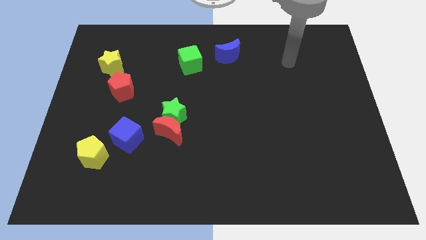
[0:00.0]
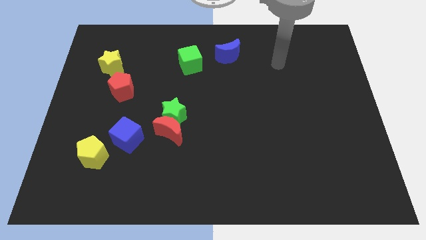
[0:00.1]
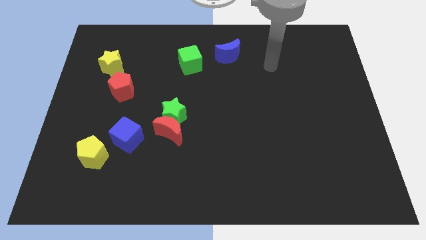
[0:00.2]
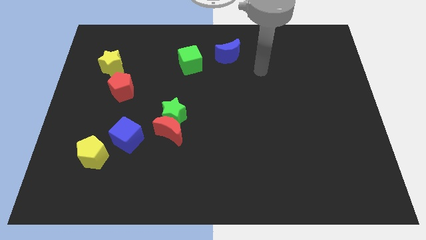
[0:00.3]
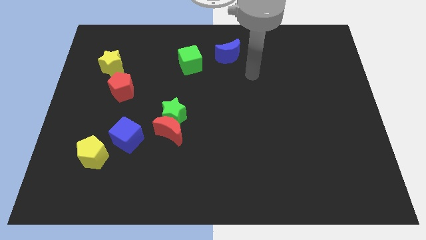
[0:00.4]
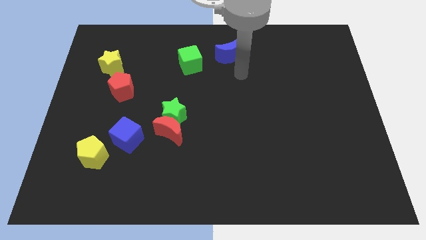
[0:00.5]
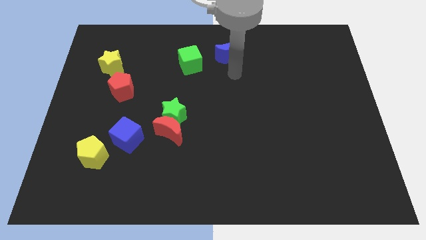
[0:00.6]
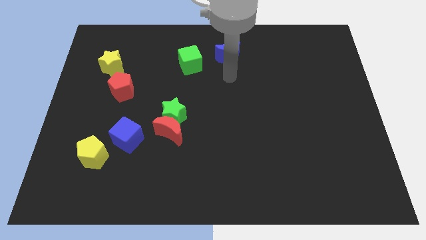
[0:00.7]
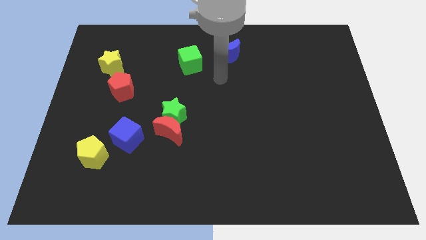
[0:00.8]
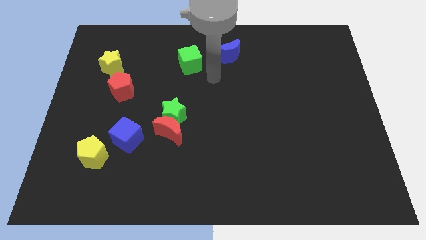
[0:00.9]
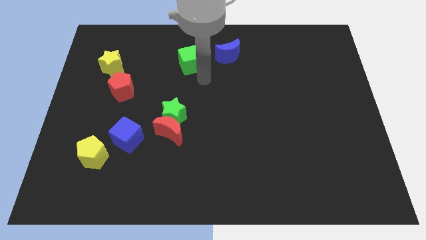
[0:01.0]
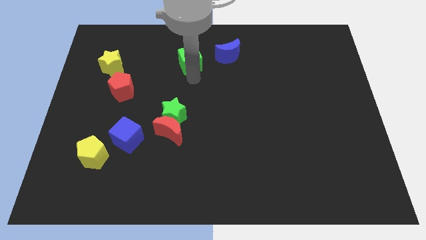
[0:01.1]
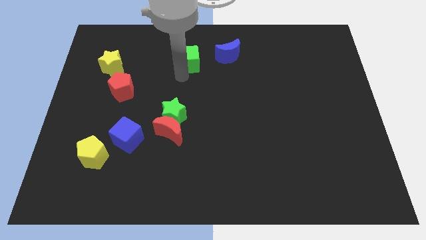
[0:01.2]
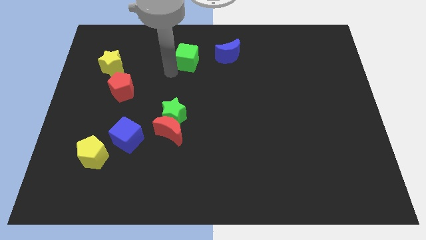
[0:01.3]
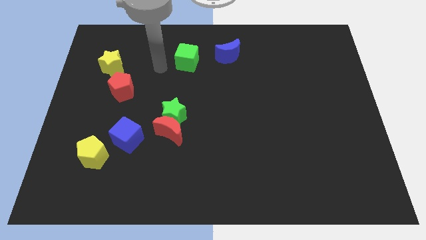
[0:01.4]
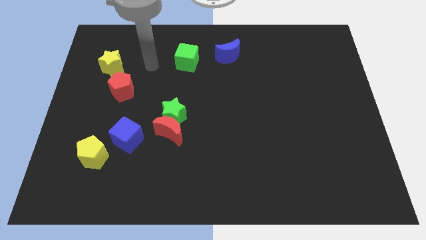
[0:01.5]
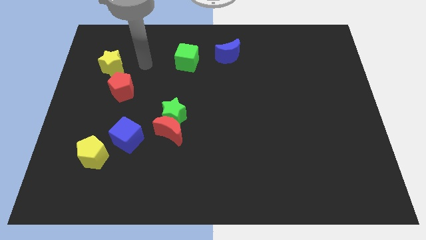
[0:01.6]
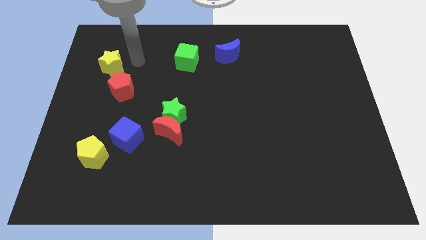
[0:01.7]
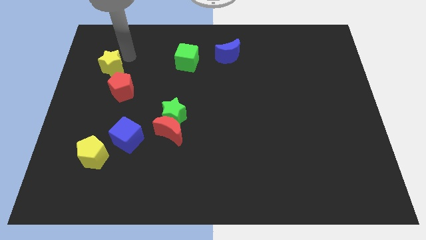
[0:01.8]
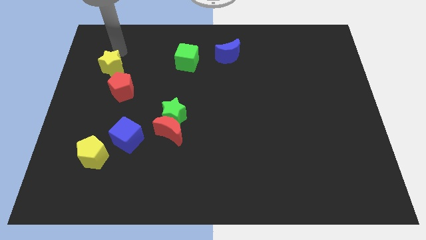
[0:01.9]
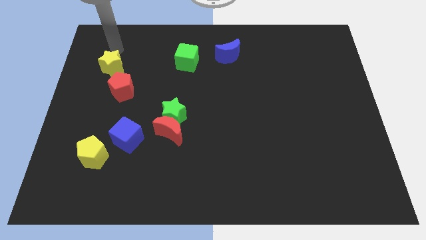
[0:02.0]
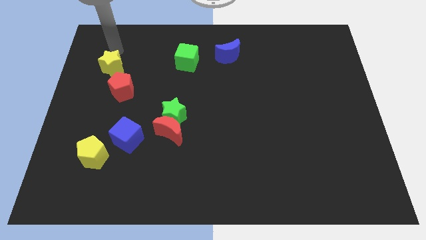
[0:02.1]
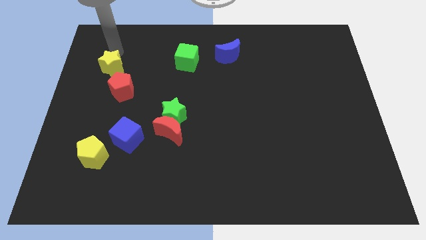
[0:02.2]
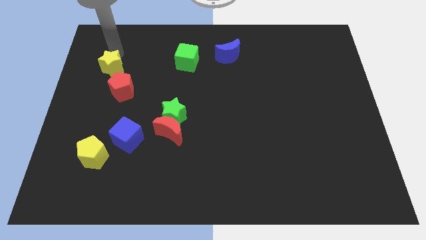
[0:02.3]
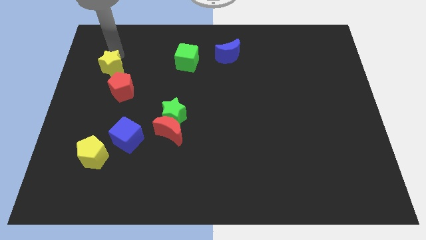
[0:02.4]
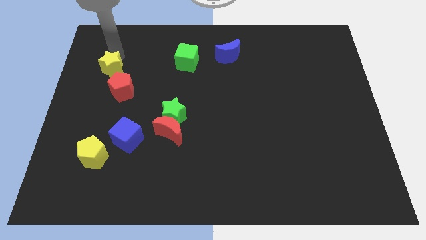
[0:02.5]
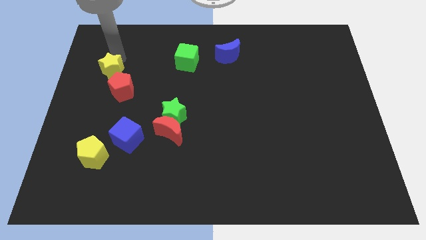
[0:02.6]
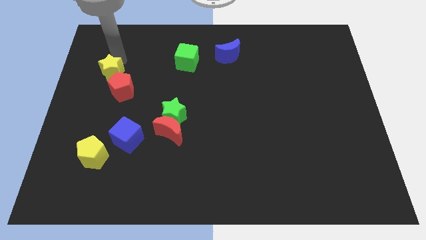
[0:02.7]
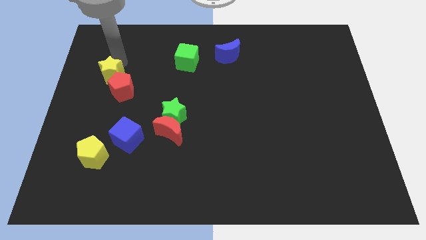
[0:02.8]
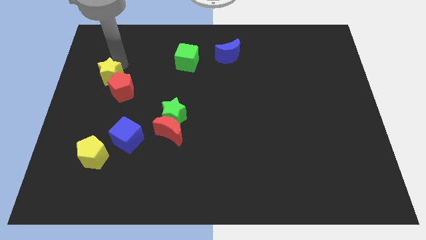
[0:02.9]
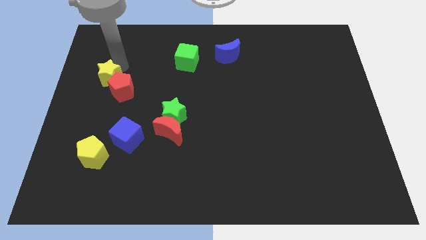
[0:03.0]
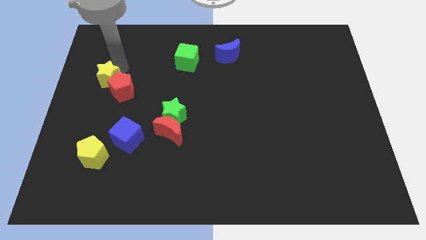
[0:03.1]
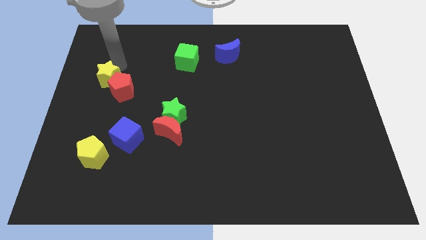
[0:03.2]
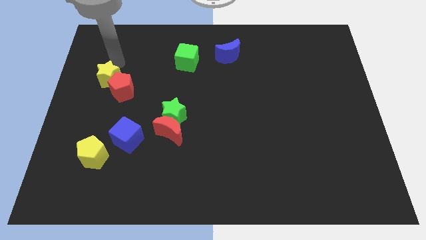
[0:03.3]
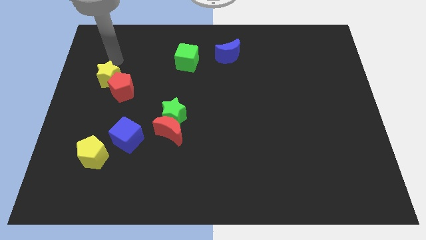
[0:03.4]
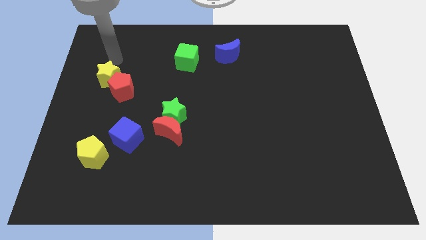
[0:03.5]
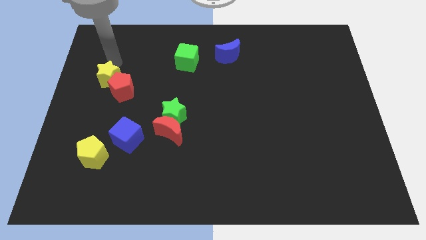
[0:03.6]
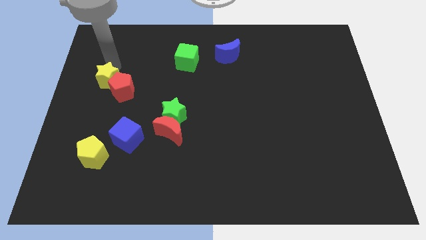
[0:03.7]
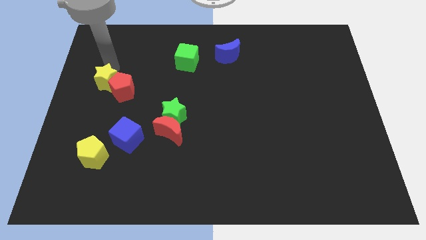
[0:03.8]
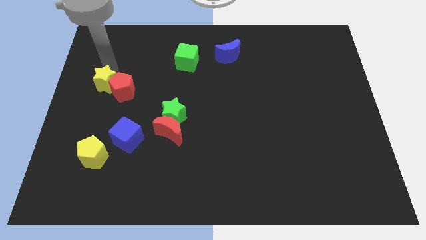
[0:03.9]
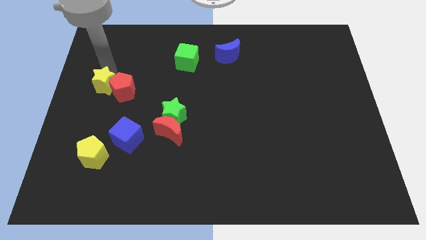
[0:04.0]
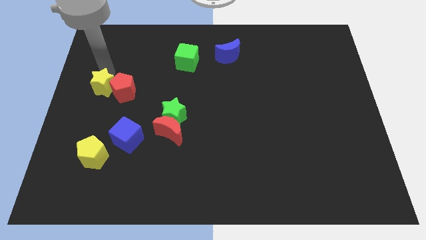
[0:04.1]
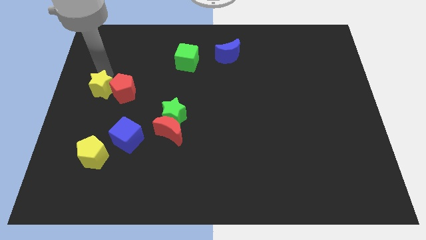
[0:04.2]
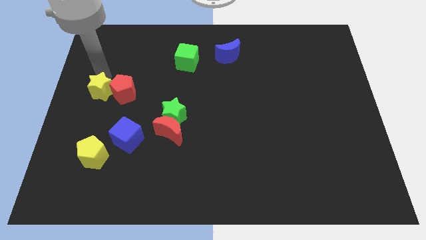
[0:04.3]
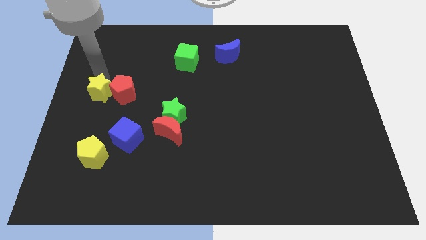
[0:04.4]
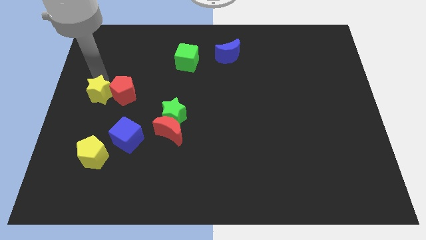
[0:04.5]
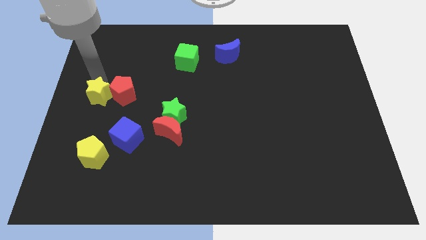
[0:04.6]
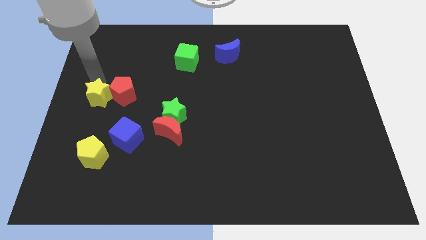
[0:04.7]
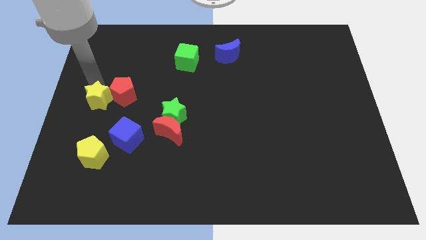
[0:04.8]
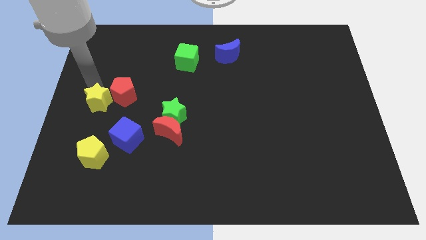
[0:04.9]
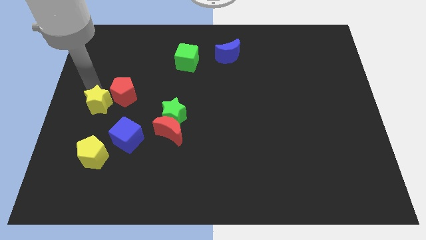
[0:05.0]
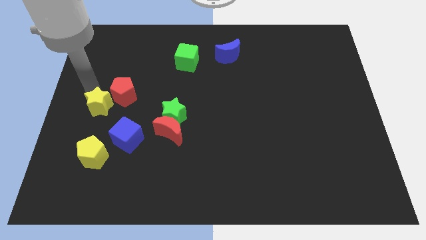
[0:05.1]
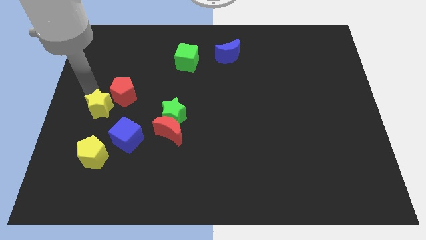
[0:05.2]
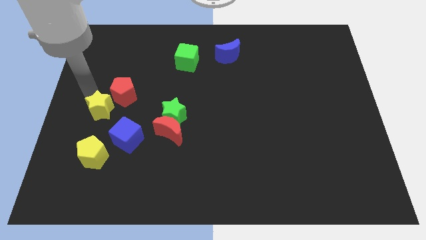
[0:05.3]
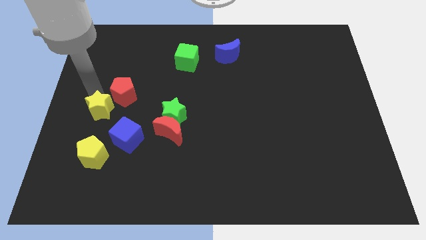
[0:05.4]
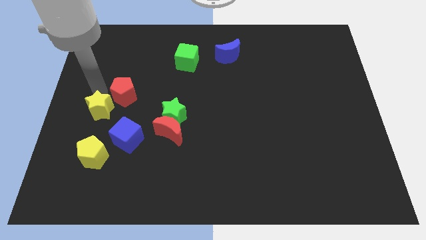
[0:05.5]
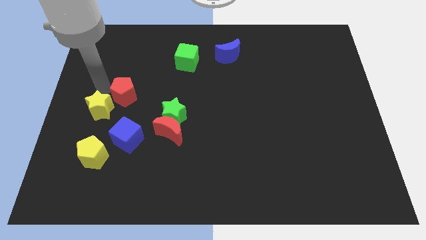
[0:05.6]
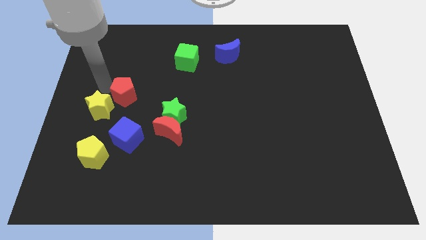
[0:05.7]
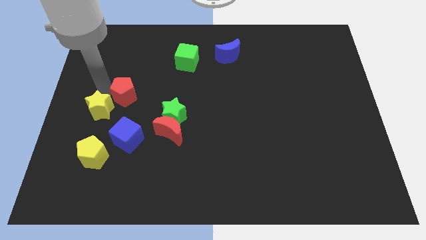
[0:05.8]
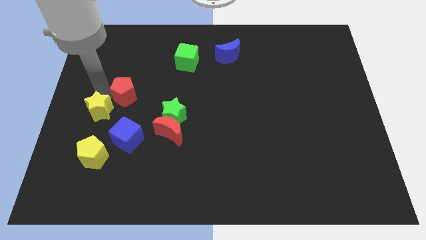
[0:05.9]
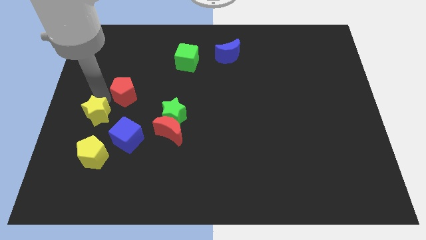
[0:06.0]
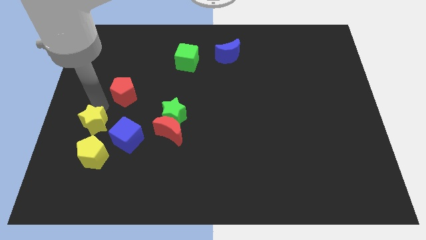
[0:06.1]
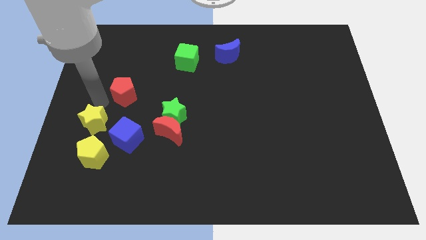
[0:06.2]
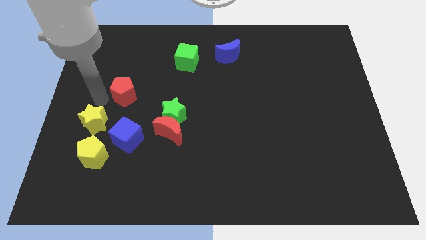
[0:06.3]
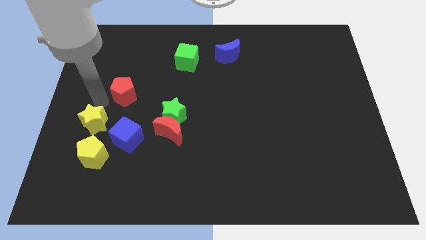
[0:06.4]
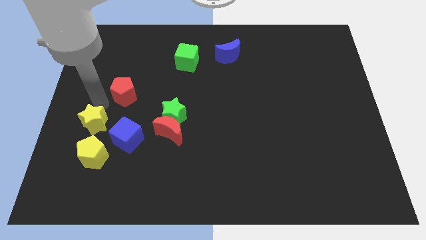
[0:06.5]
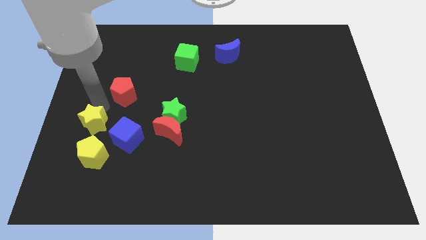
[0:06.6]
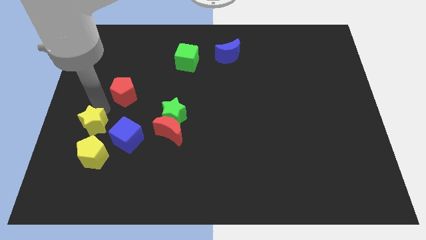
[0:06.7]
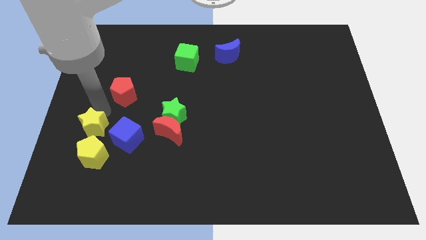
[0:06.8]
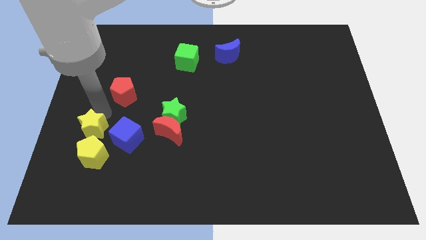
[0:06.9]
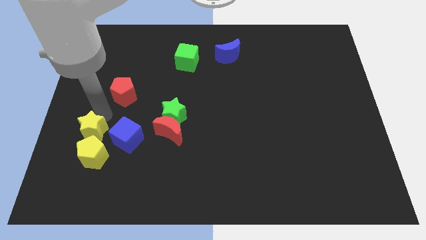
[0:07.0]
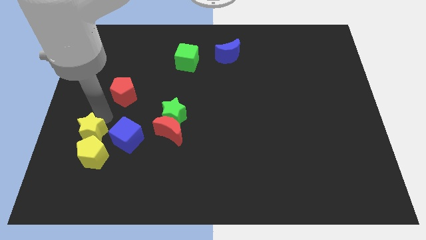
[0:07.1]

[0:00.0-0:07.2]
put the yellow star next to the yellow pentagon
